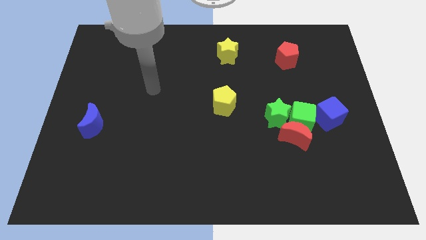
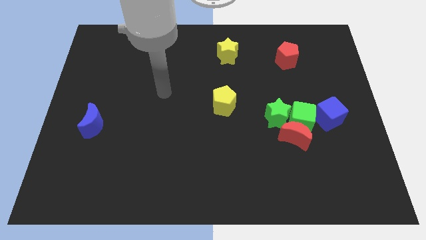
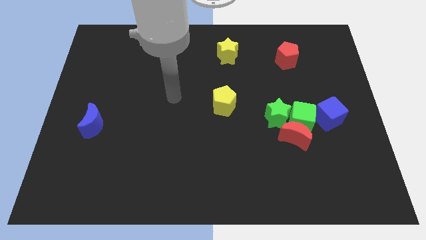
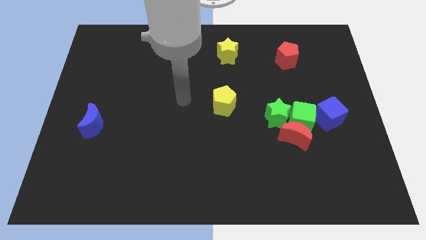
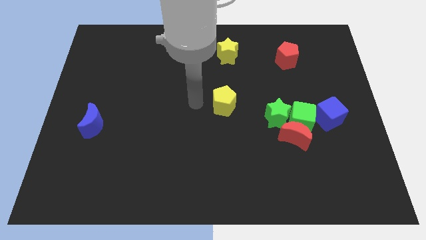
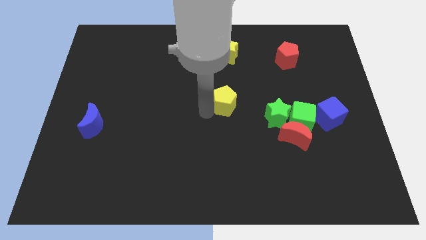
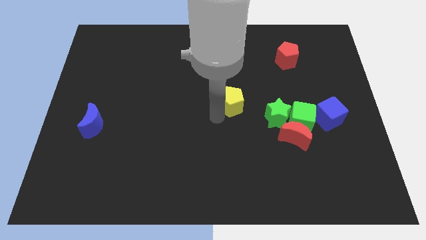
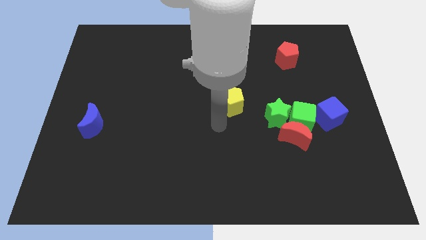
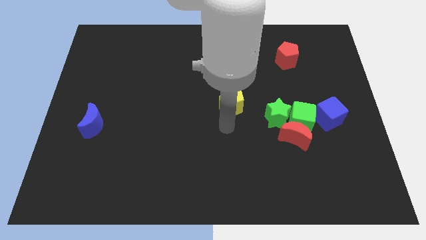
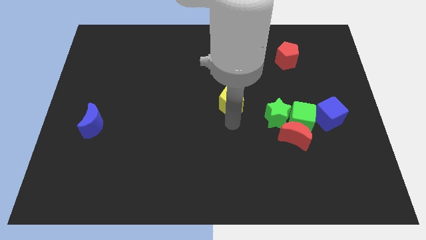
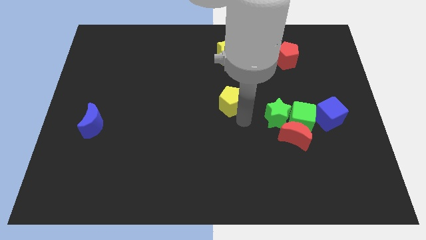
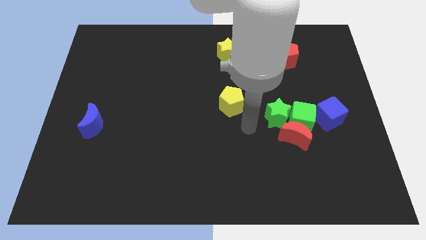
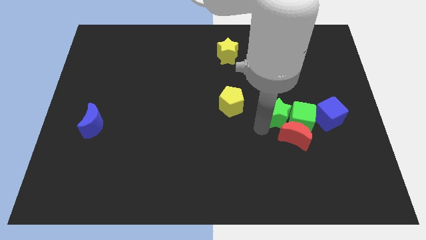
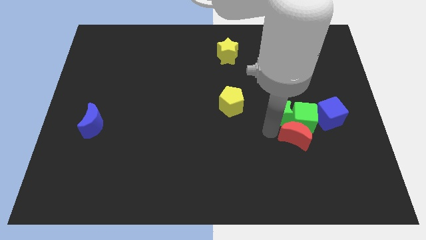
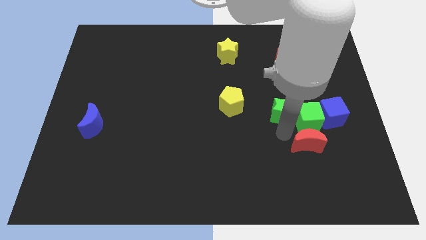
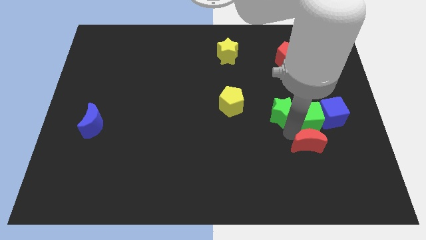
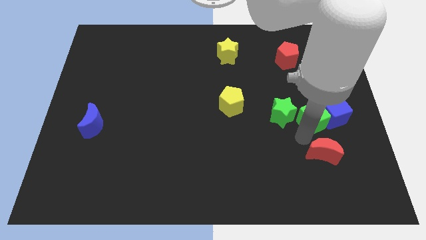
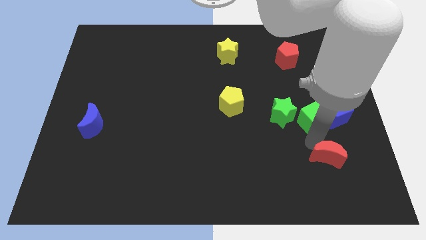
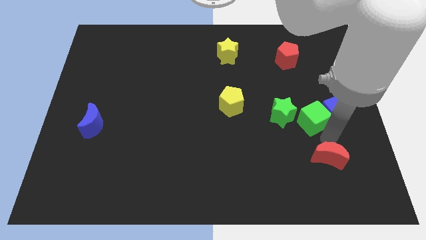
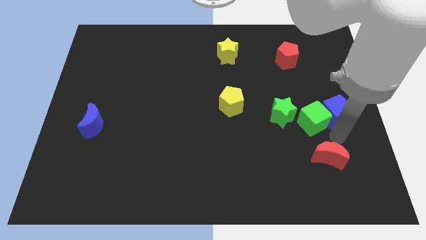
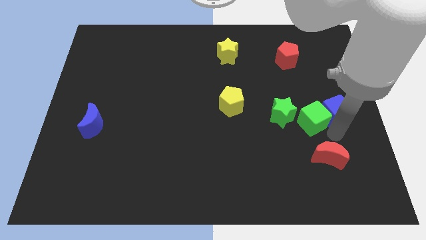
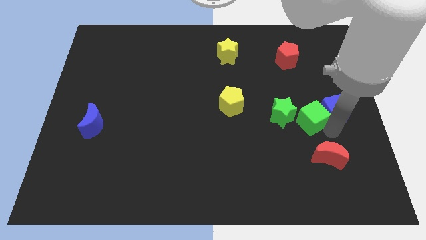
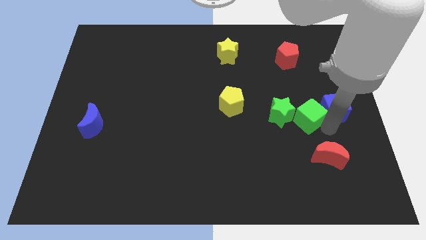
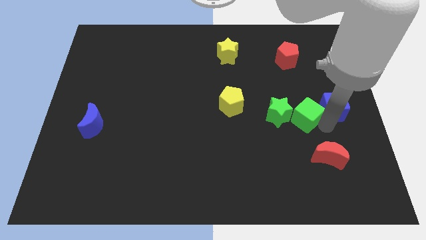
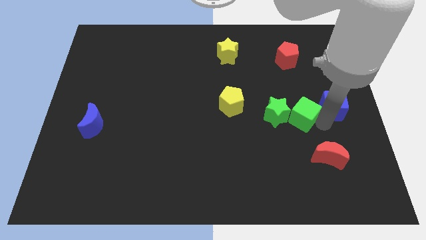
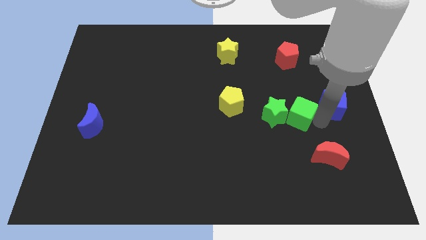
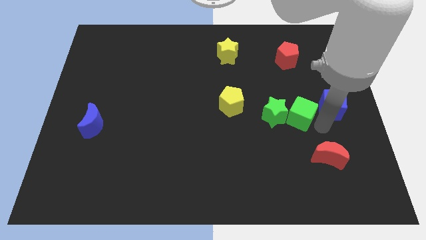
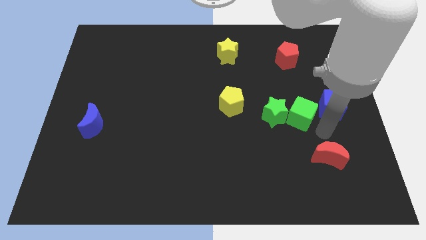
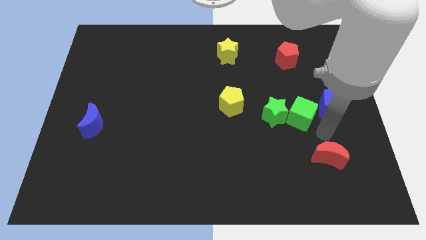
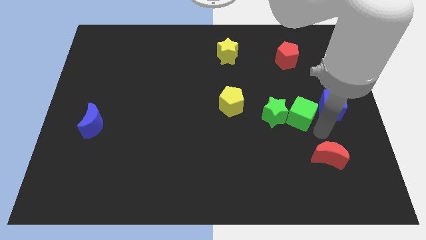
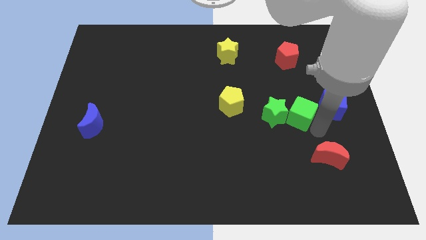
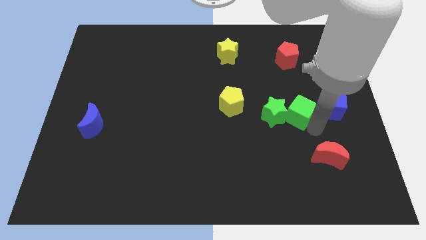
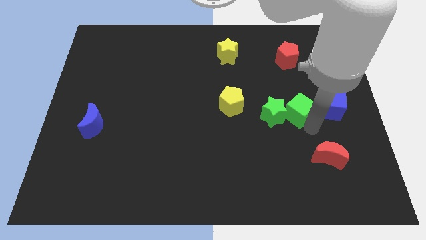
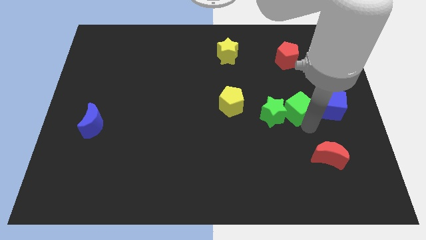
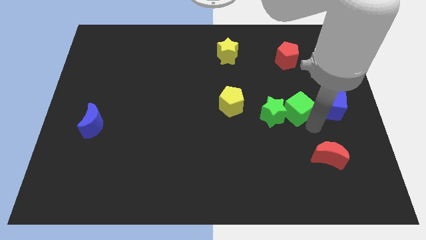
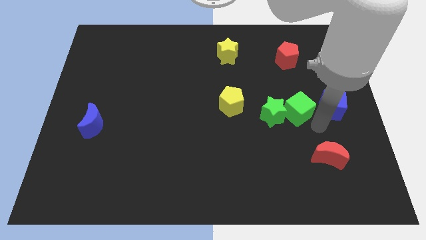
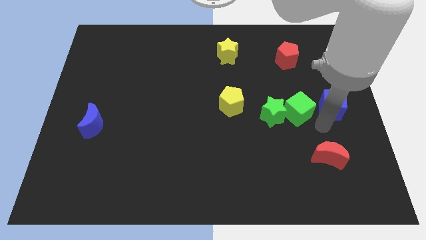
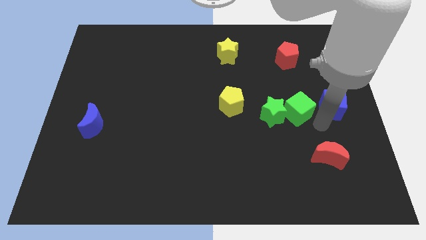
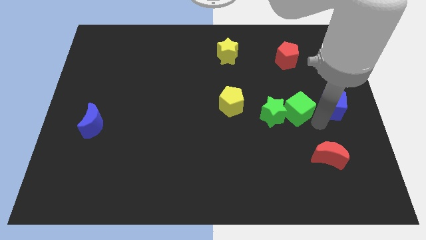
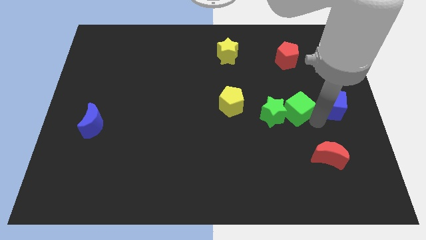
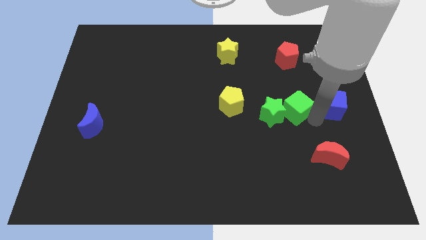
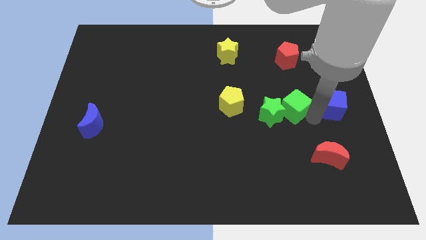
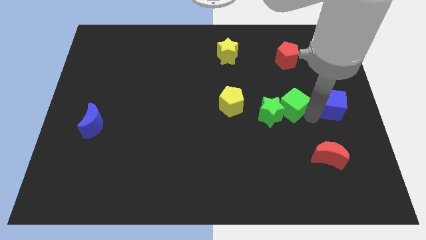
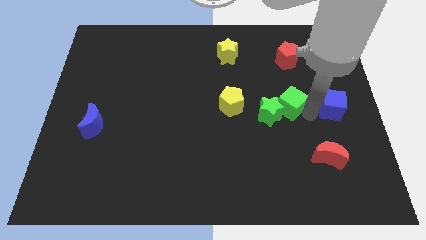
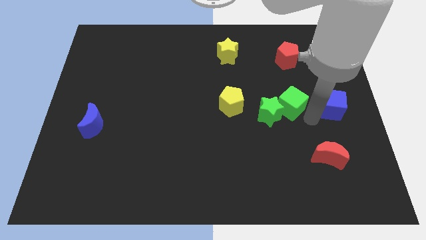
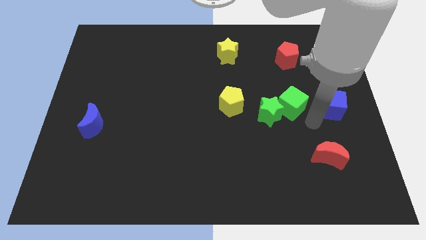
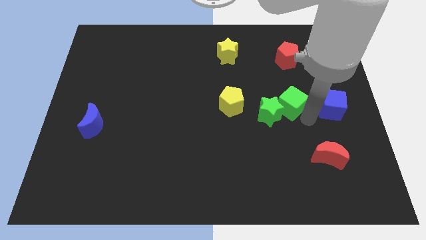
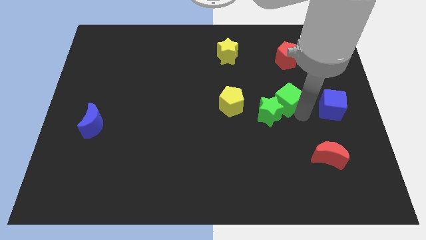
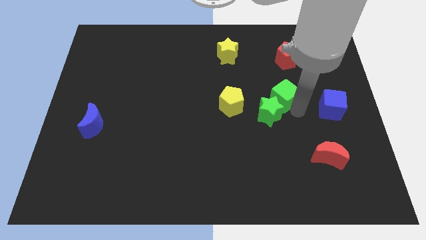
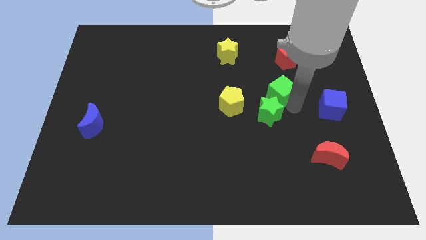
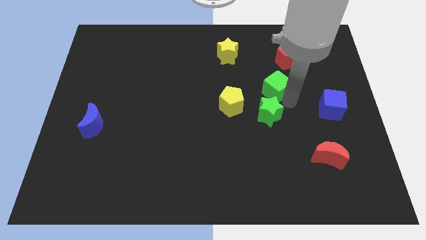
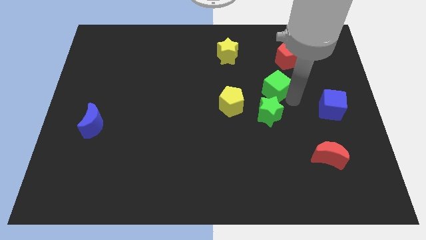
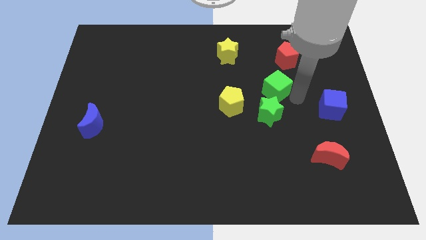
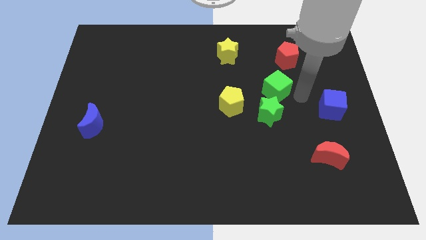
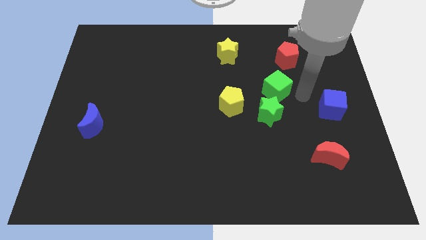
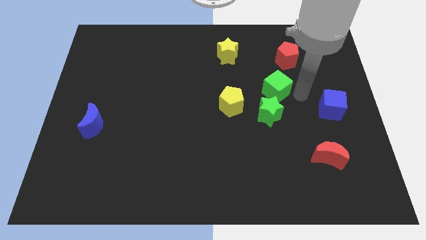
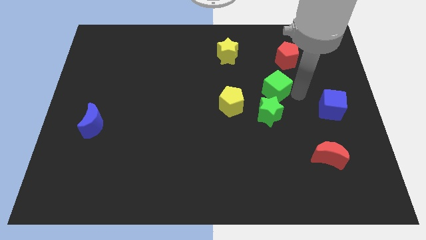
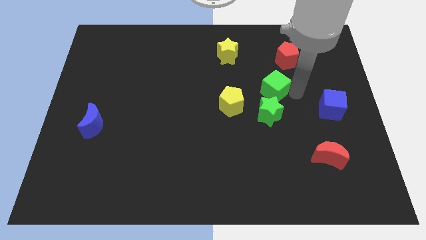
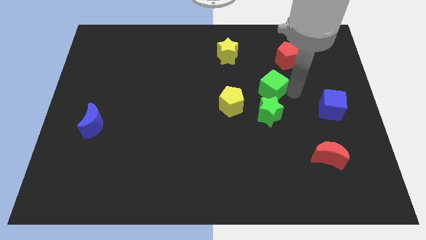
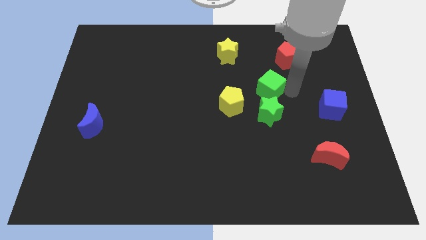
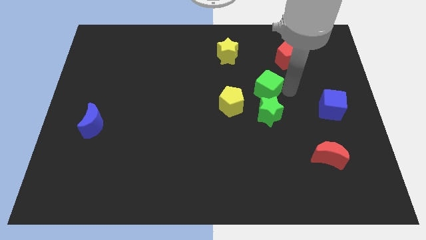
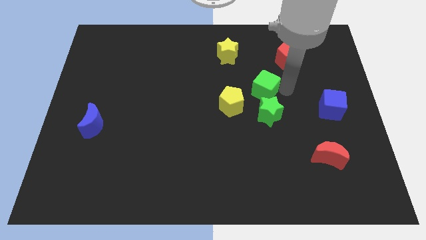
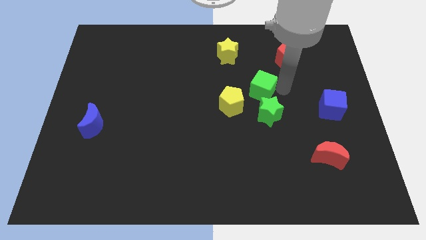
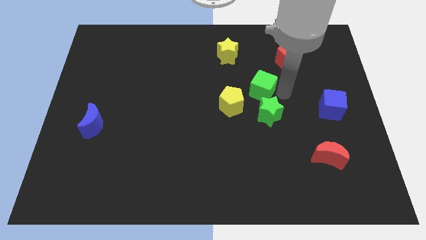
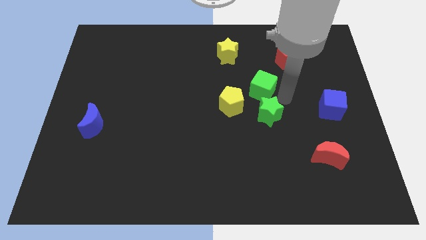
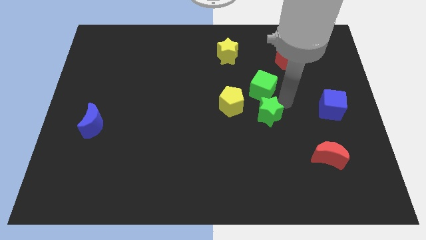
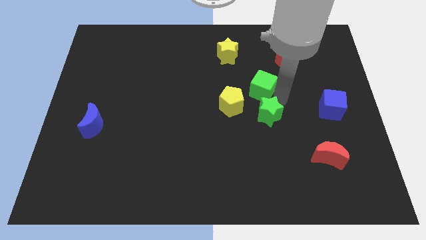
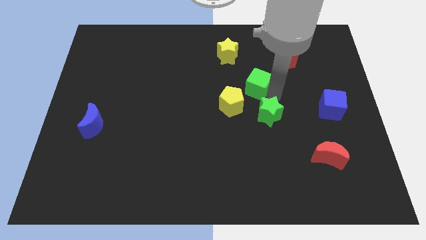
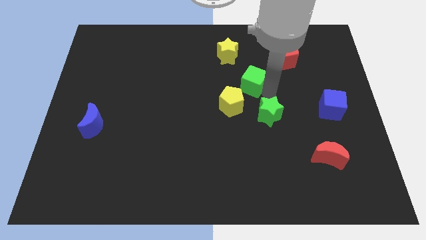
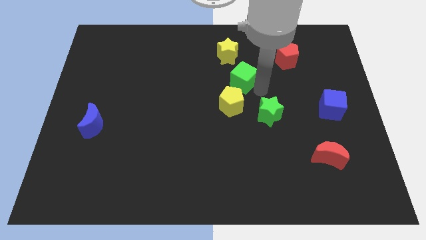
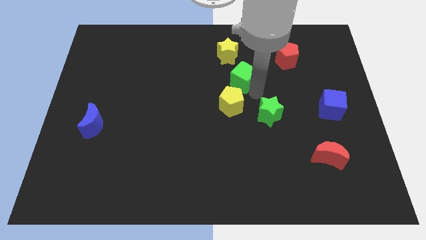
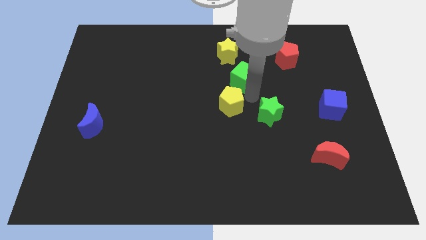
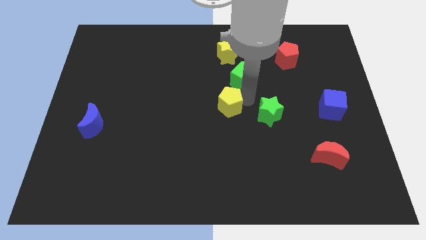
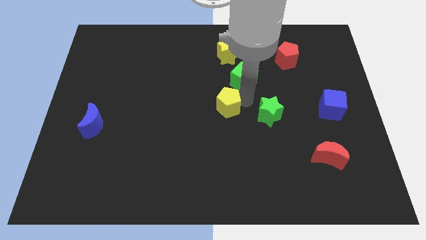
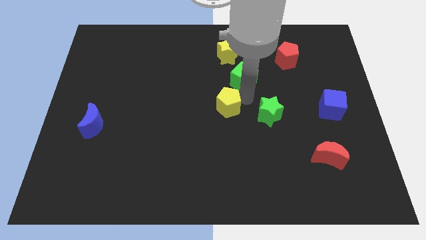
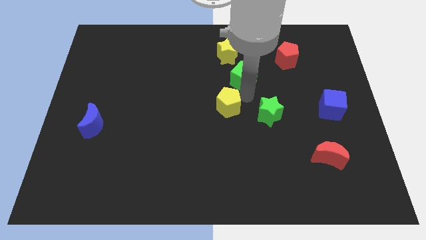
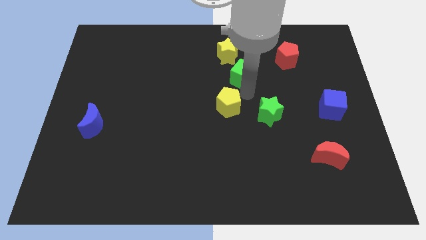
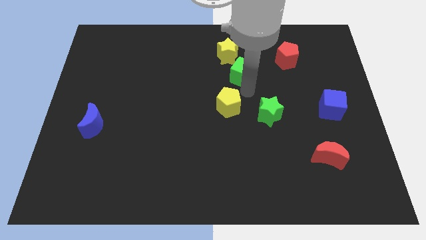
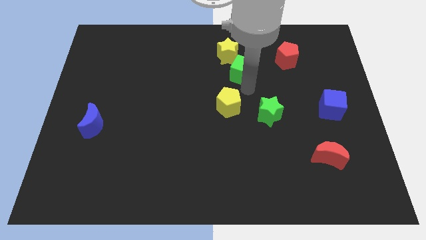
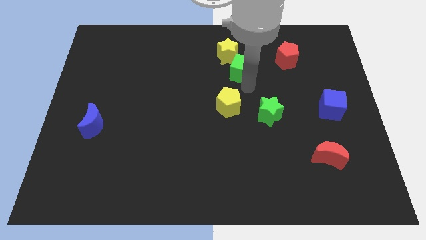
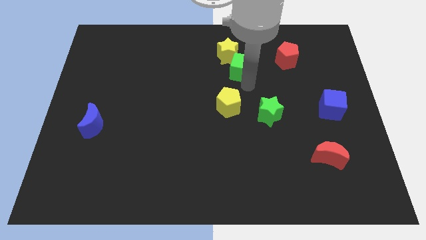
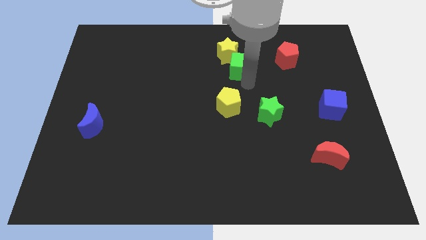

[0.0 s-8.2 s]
put the green cube close to the yellow star
